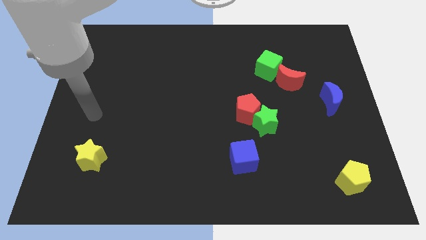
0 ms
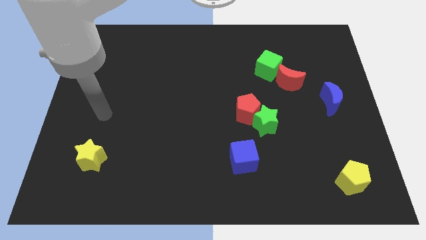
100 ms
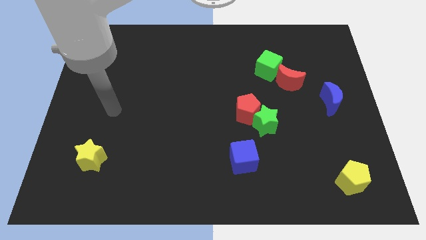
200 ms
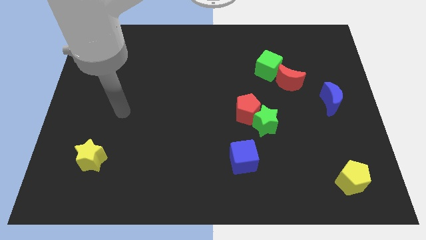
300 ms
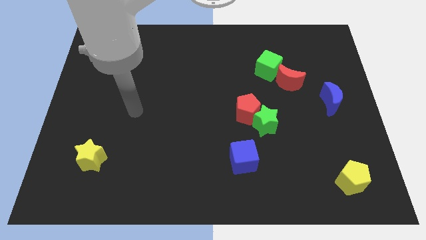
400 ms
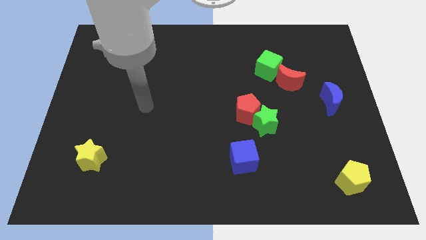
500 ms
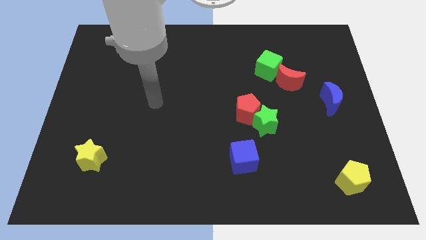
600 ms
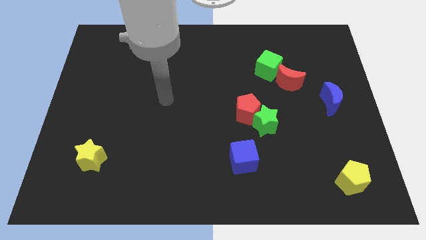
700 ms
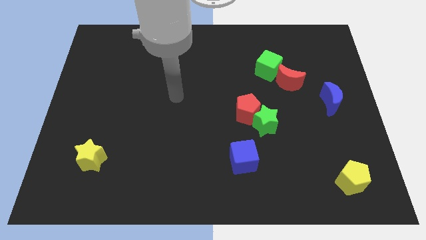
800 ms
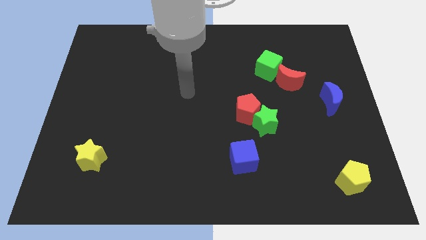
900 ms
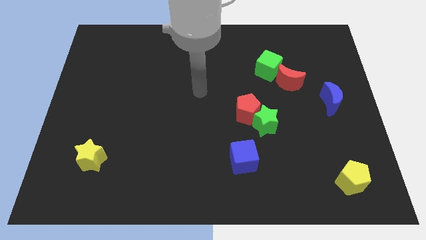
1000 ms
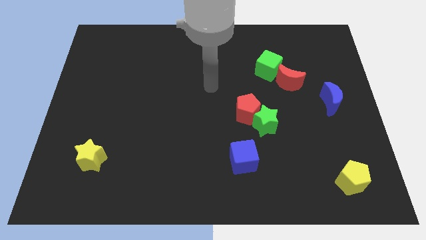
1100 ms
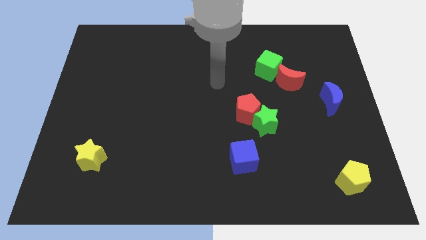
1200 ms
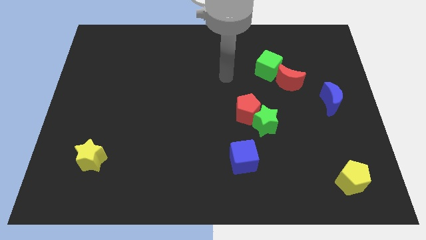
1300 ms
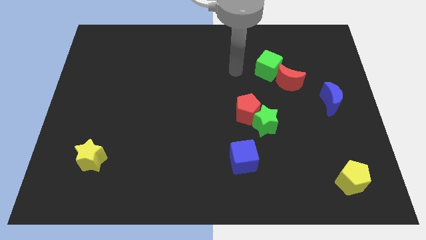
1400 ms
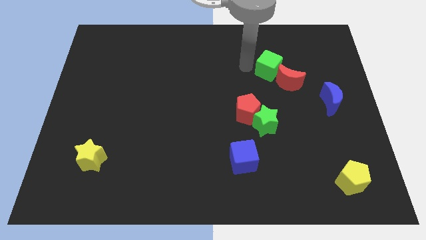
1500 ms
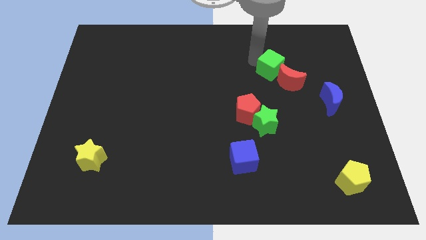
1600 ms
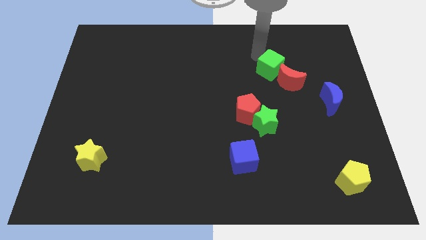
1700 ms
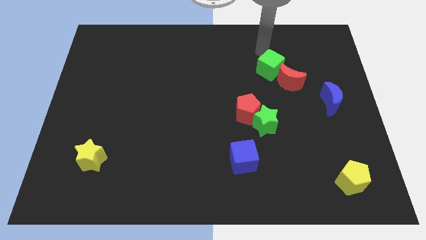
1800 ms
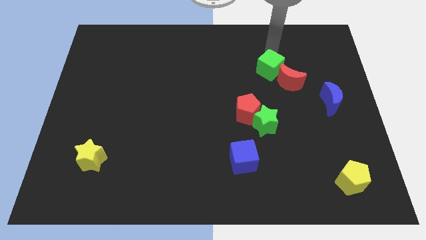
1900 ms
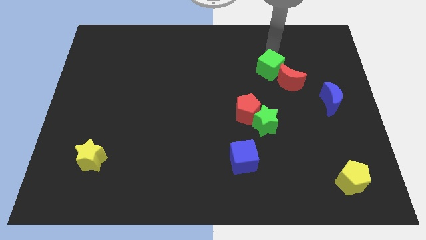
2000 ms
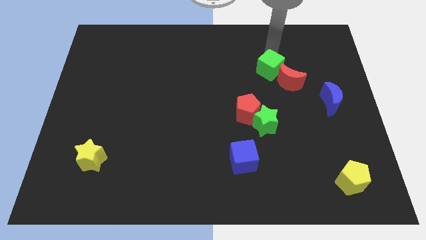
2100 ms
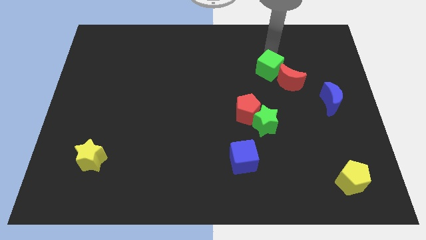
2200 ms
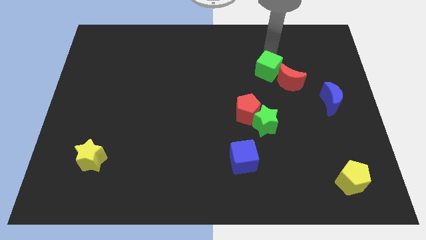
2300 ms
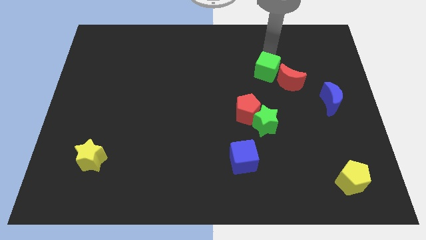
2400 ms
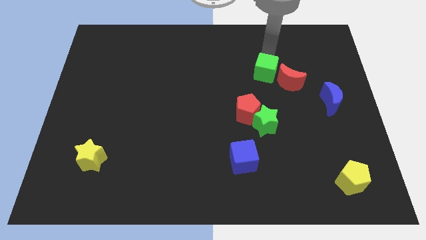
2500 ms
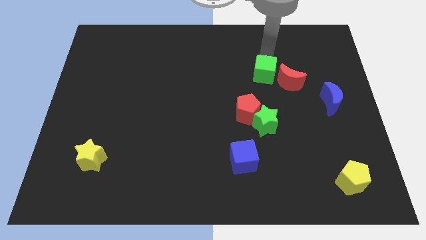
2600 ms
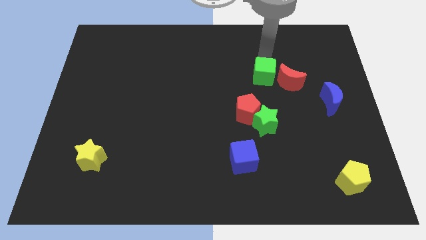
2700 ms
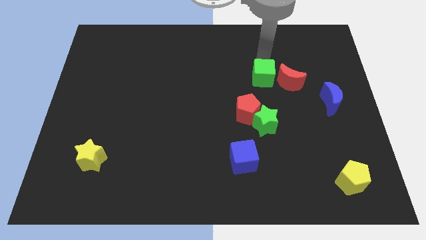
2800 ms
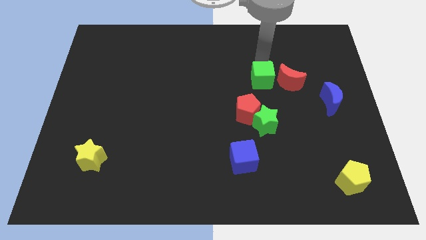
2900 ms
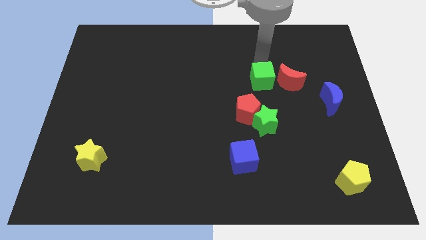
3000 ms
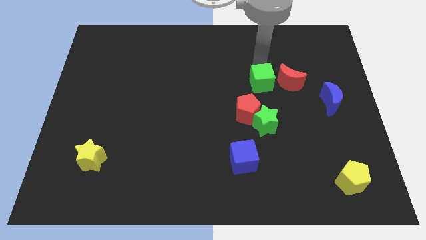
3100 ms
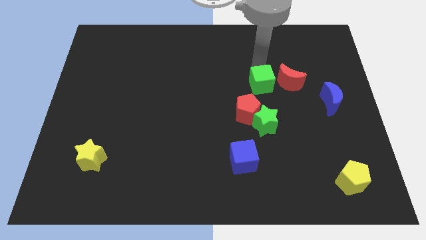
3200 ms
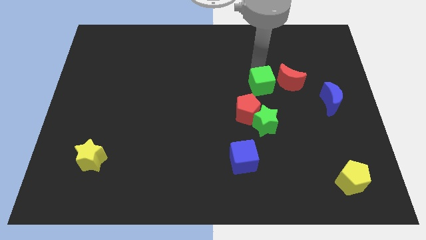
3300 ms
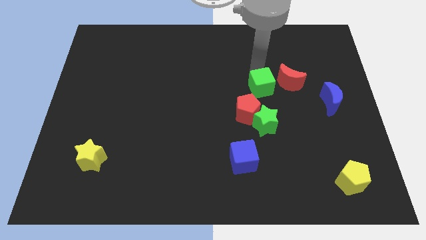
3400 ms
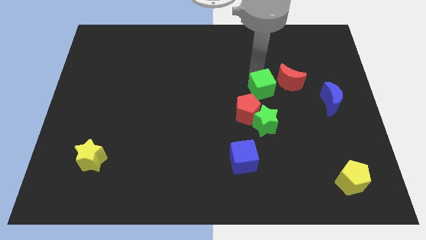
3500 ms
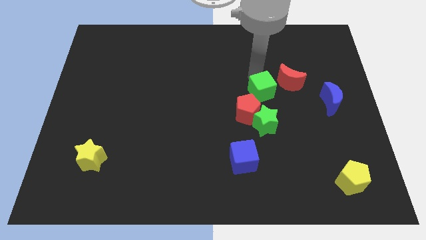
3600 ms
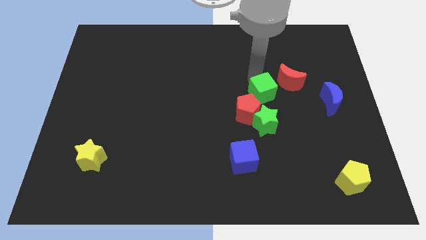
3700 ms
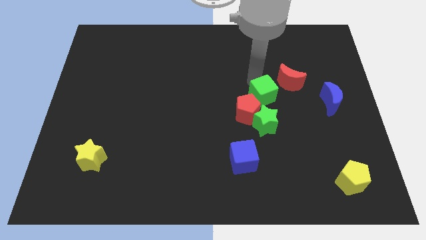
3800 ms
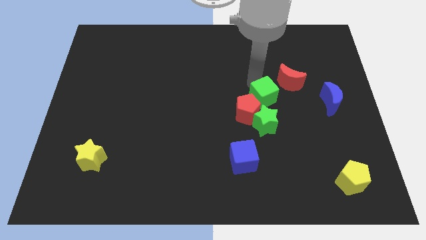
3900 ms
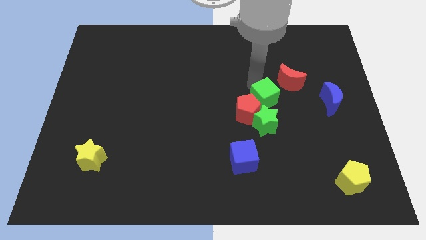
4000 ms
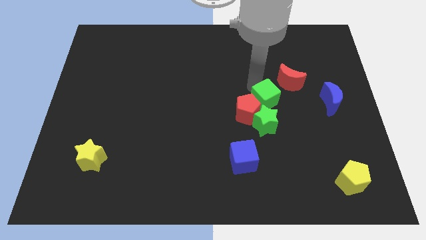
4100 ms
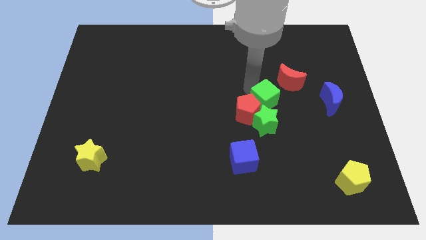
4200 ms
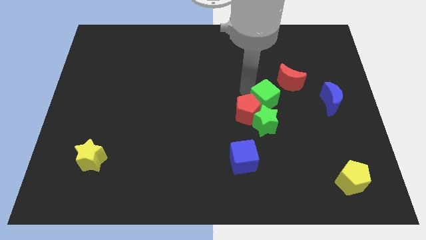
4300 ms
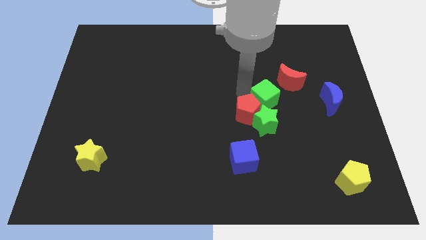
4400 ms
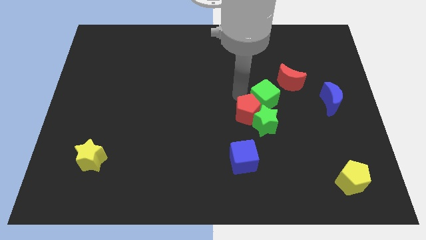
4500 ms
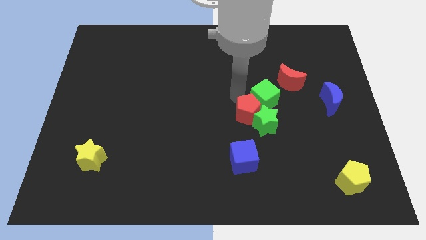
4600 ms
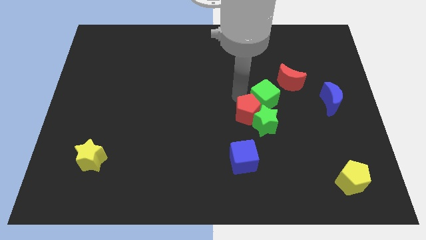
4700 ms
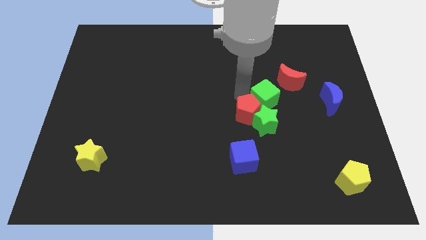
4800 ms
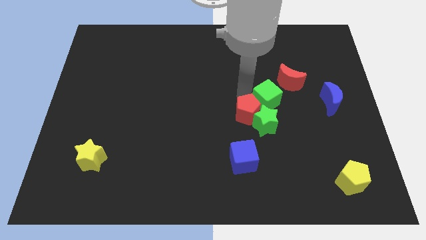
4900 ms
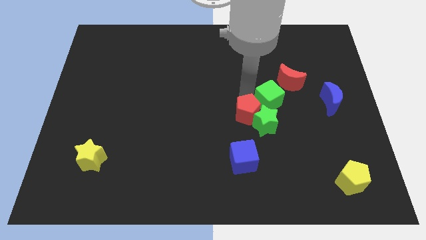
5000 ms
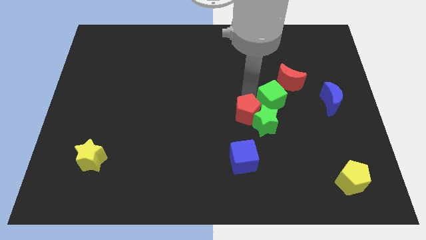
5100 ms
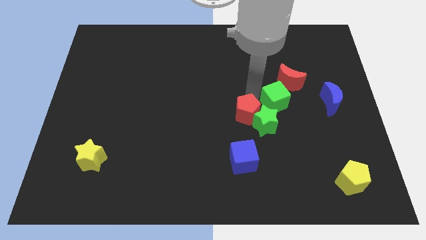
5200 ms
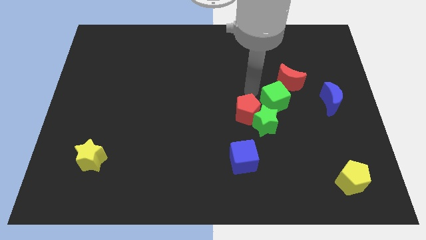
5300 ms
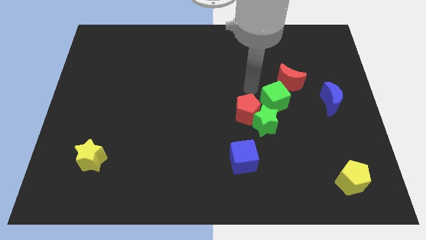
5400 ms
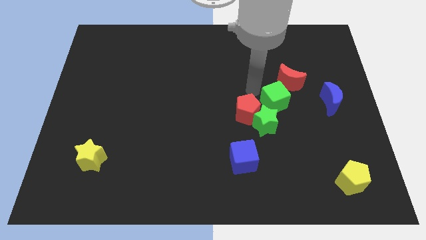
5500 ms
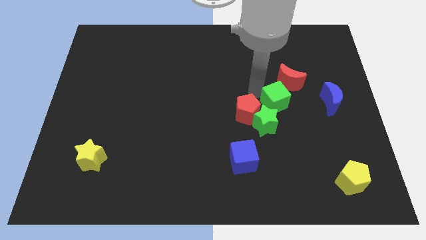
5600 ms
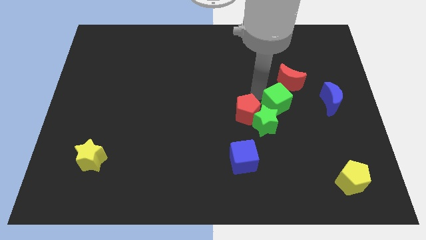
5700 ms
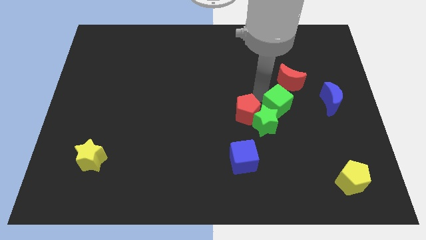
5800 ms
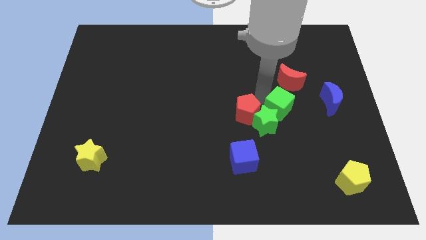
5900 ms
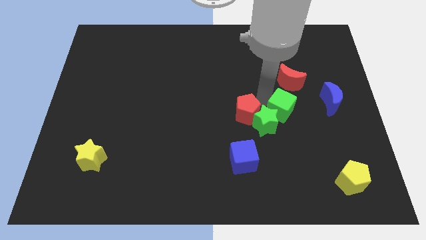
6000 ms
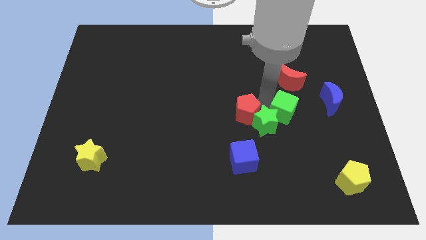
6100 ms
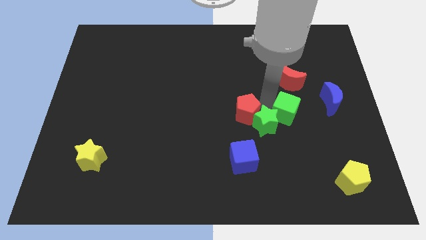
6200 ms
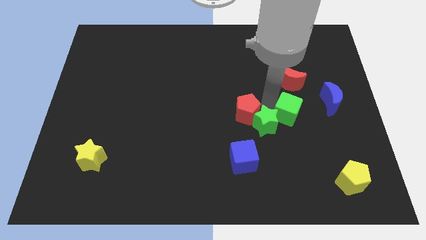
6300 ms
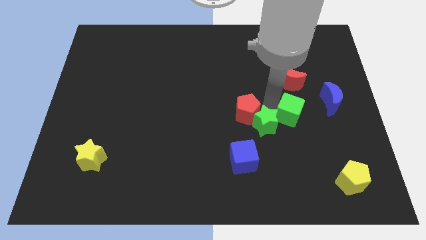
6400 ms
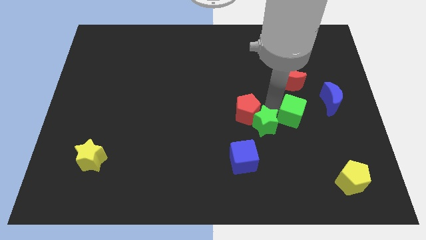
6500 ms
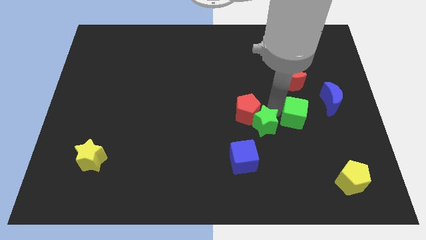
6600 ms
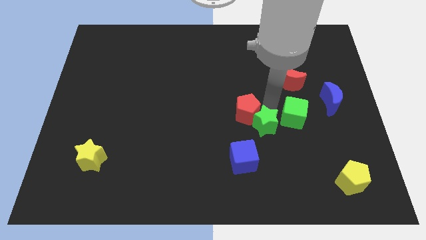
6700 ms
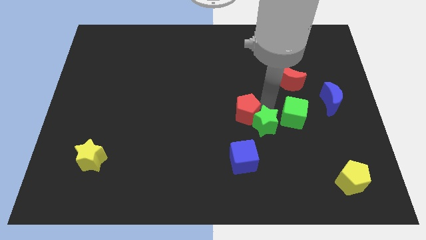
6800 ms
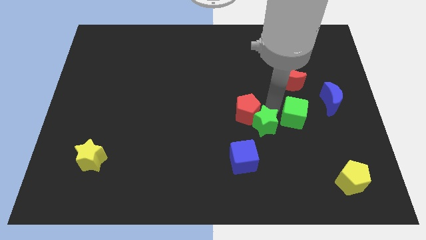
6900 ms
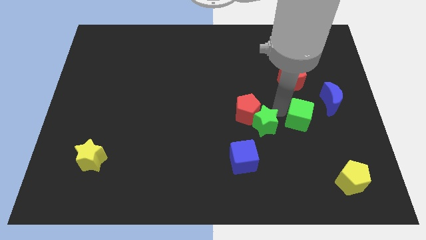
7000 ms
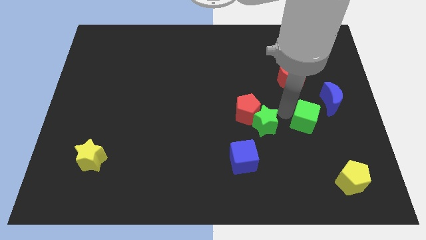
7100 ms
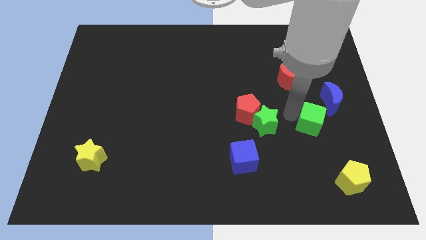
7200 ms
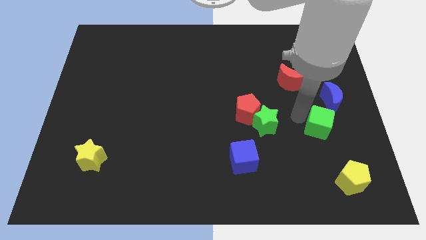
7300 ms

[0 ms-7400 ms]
push the green cube to the top side of the yellow pentagon

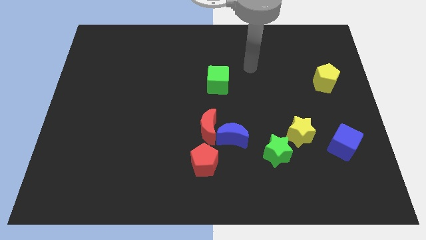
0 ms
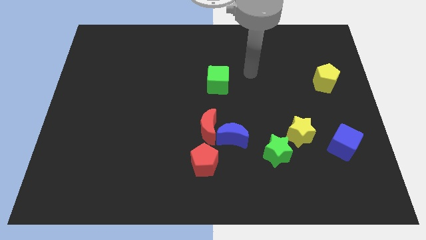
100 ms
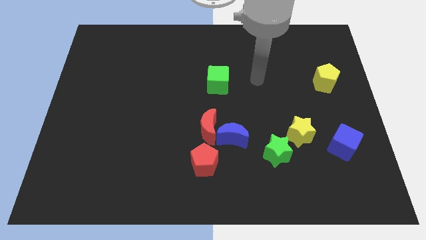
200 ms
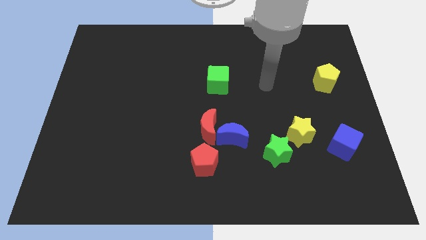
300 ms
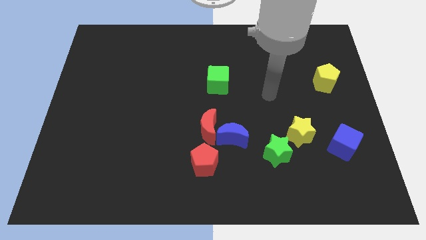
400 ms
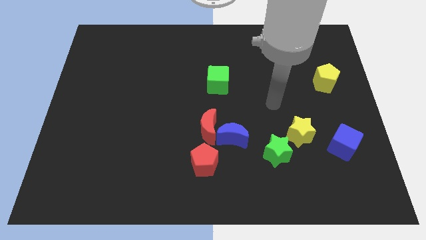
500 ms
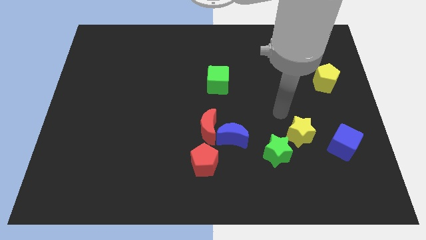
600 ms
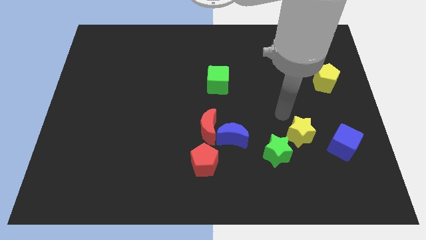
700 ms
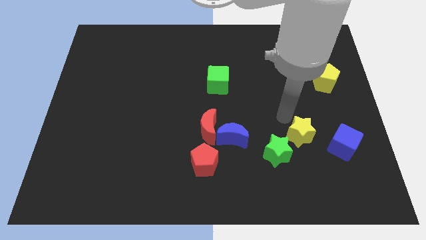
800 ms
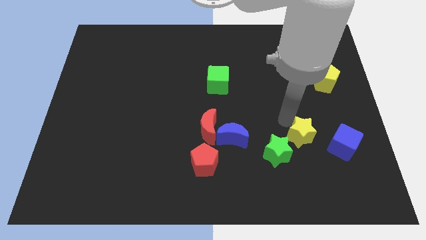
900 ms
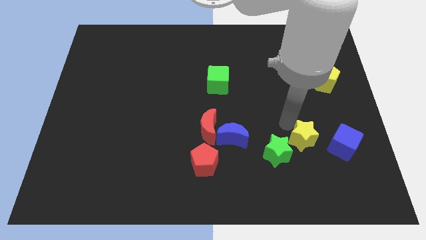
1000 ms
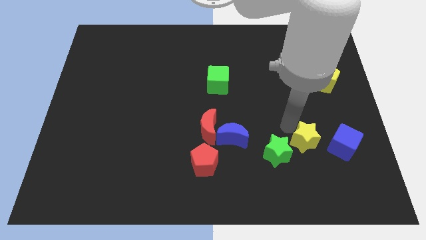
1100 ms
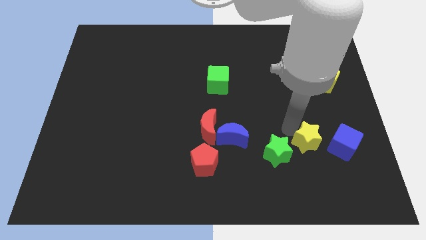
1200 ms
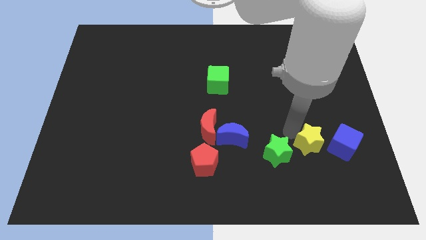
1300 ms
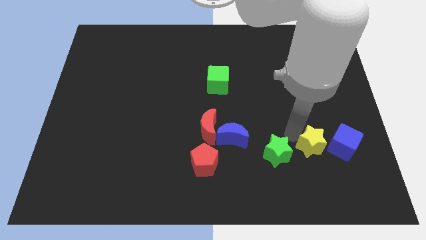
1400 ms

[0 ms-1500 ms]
slide the yellow star diagonally down and to the left of the blue cube
